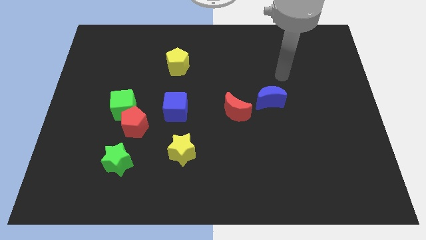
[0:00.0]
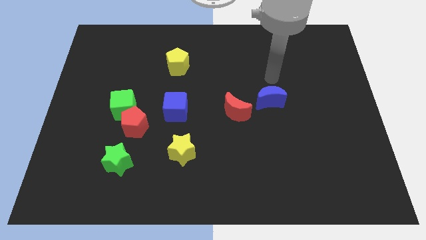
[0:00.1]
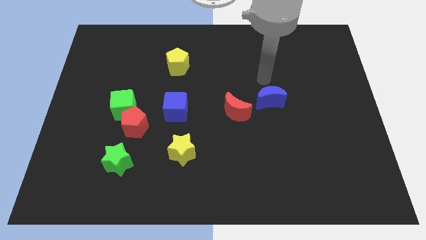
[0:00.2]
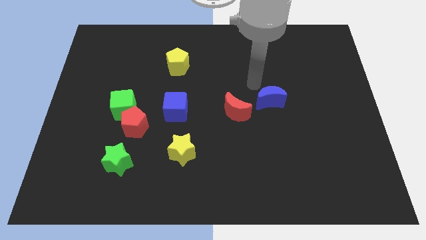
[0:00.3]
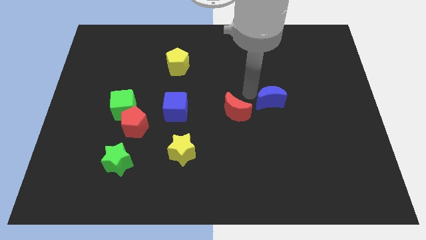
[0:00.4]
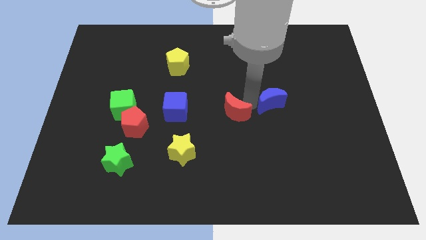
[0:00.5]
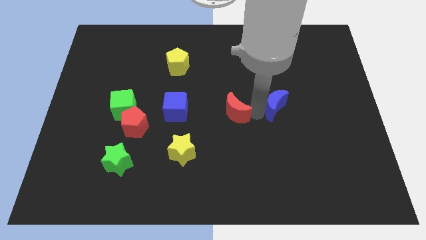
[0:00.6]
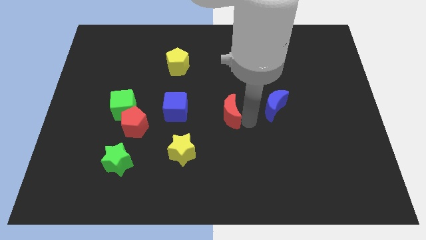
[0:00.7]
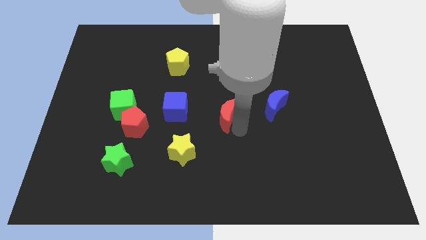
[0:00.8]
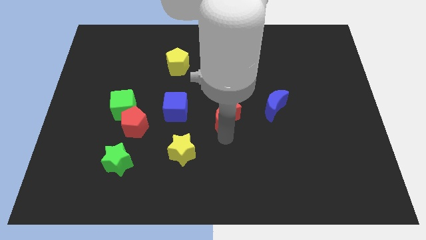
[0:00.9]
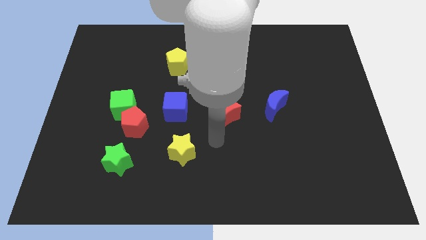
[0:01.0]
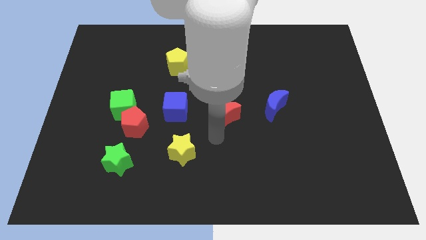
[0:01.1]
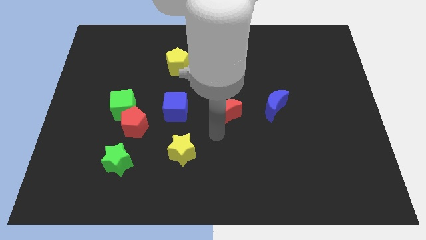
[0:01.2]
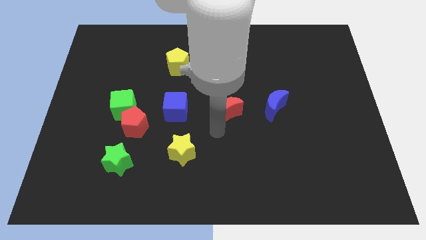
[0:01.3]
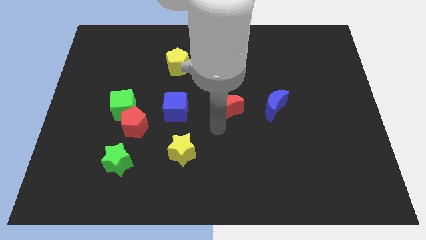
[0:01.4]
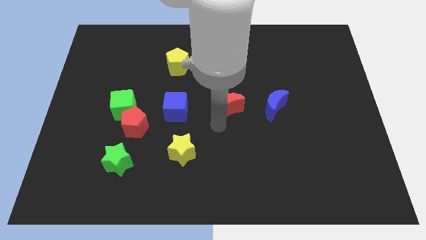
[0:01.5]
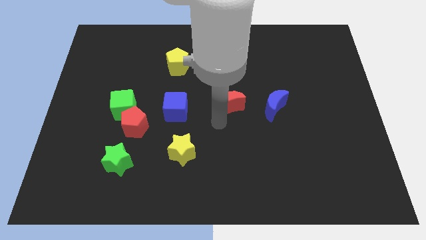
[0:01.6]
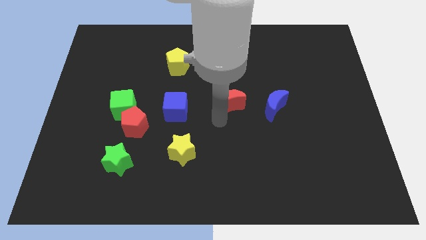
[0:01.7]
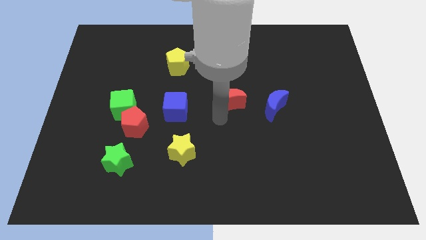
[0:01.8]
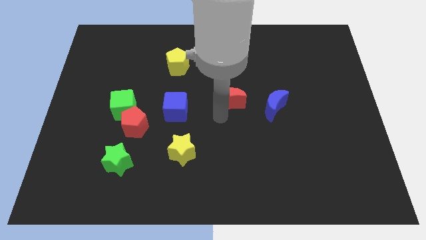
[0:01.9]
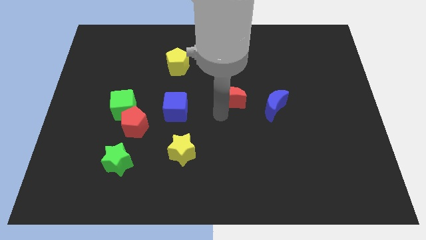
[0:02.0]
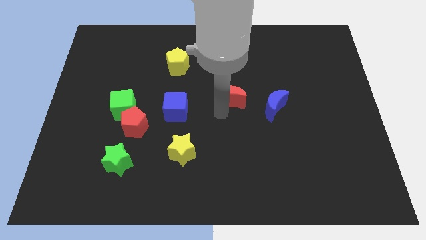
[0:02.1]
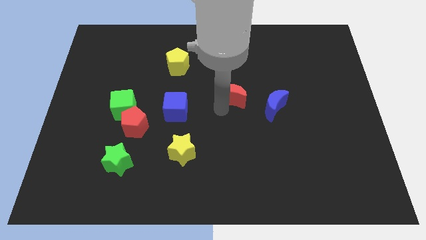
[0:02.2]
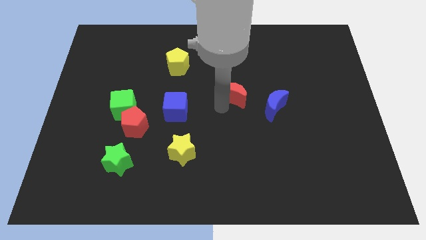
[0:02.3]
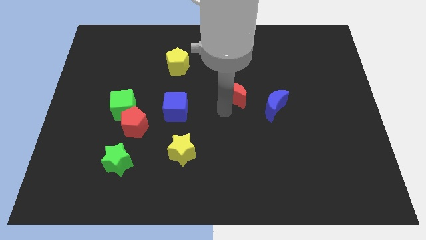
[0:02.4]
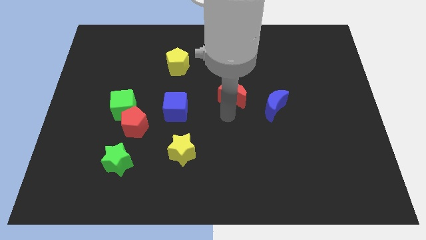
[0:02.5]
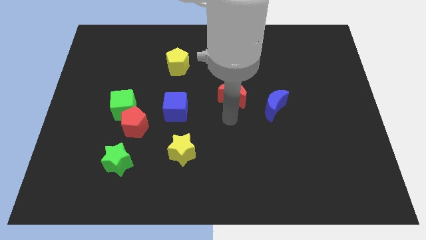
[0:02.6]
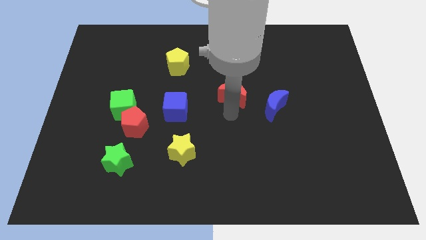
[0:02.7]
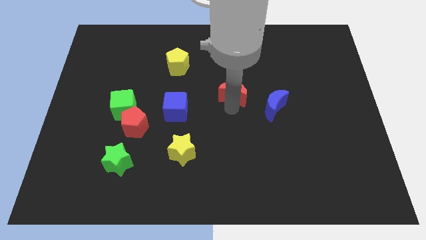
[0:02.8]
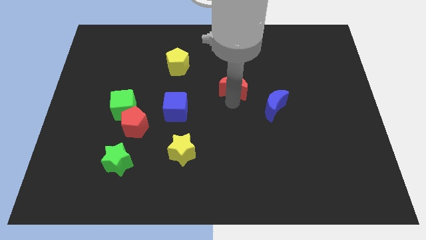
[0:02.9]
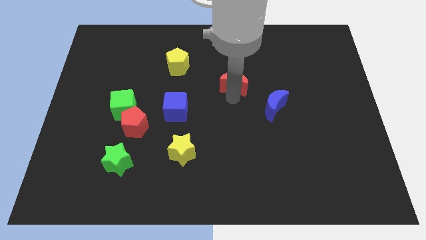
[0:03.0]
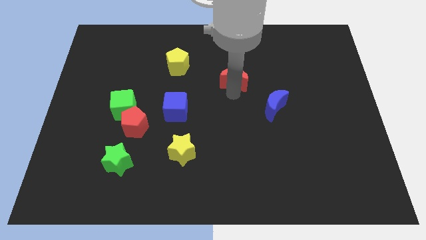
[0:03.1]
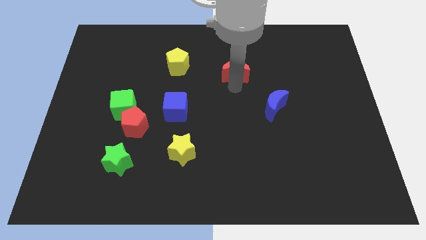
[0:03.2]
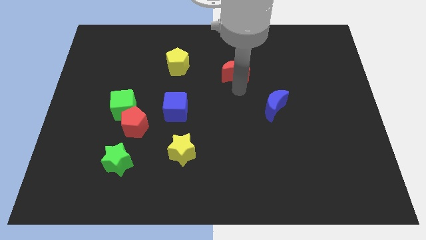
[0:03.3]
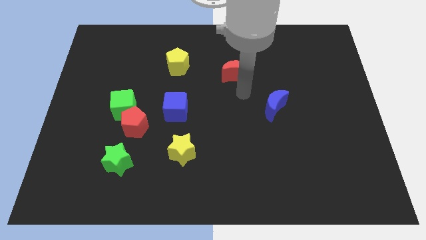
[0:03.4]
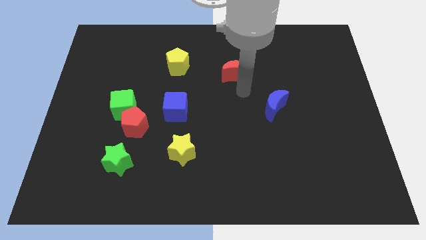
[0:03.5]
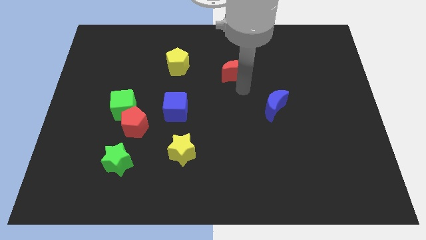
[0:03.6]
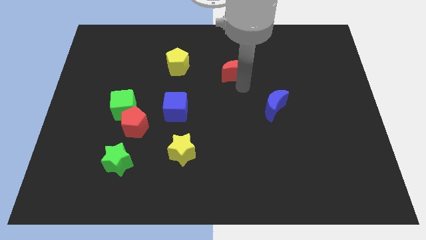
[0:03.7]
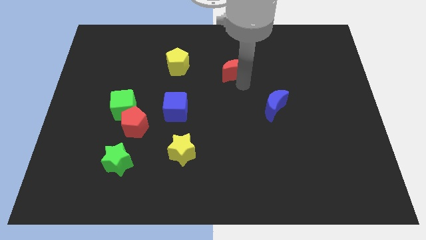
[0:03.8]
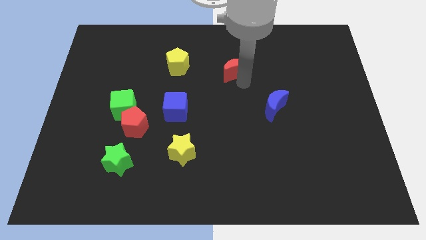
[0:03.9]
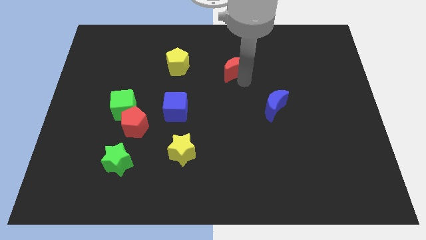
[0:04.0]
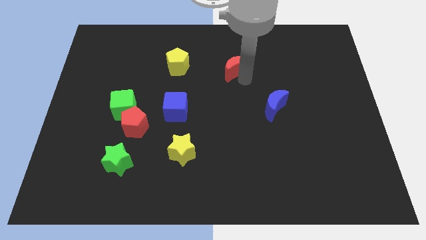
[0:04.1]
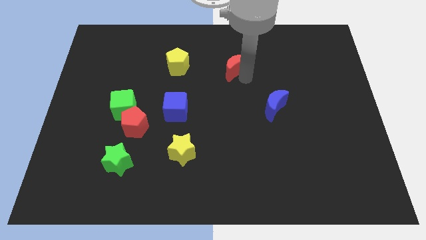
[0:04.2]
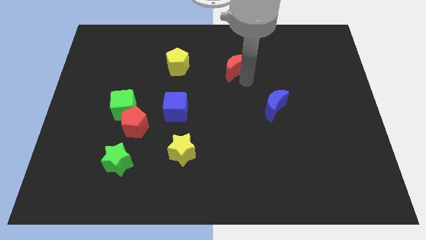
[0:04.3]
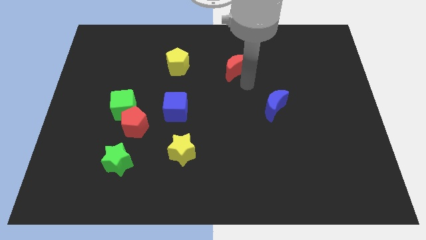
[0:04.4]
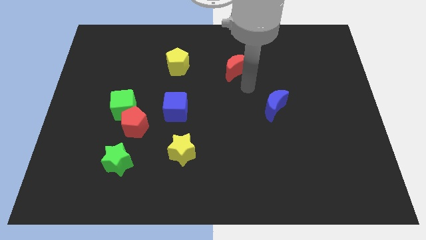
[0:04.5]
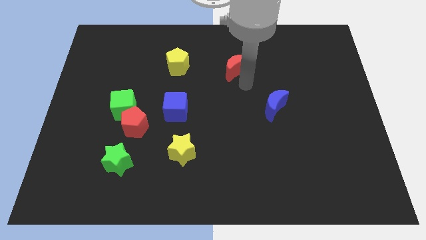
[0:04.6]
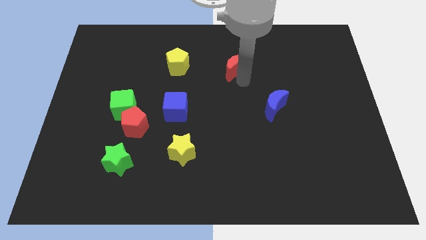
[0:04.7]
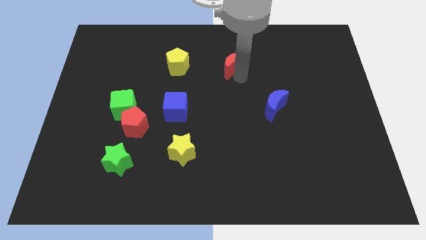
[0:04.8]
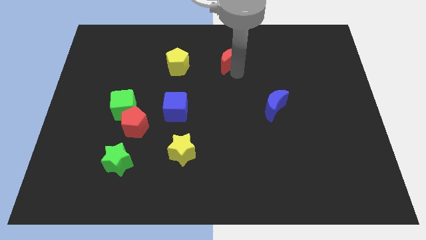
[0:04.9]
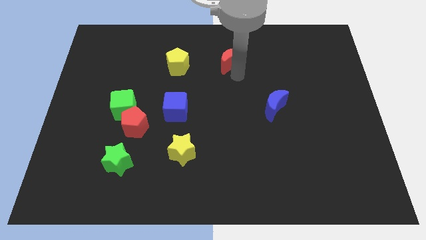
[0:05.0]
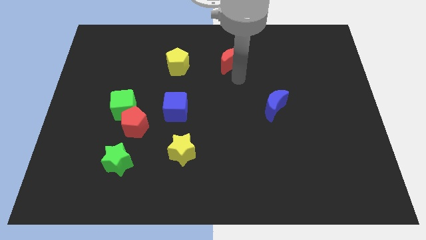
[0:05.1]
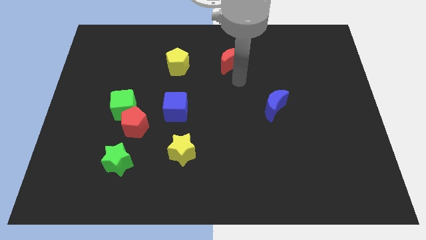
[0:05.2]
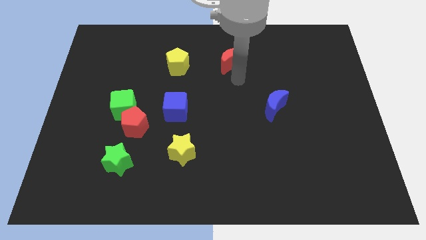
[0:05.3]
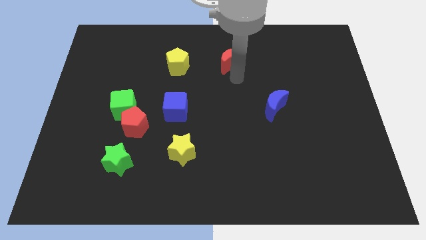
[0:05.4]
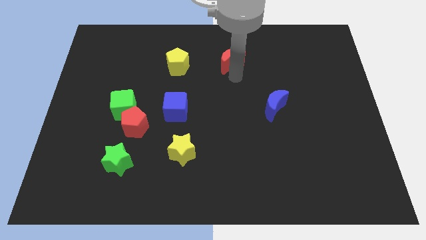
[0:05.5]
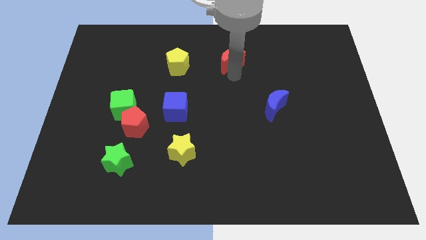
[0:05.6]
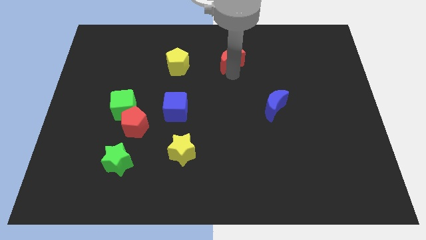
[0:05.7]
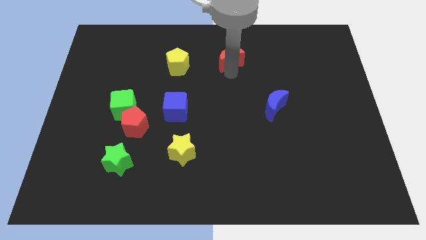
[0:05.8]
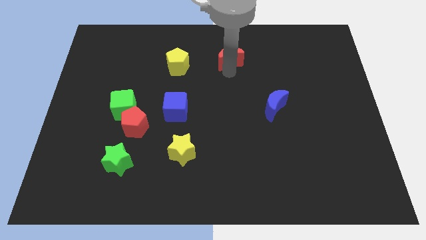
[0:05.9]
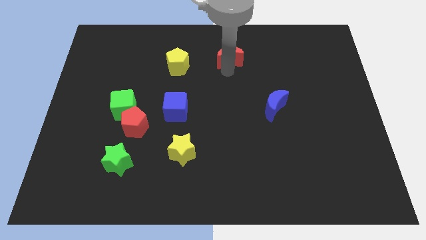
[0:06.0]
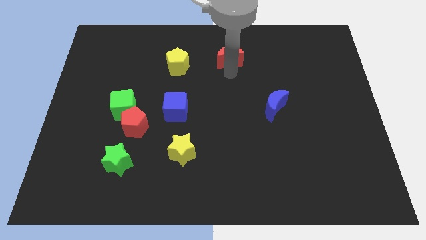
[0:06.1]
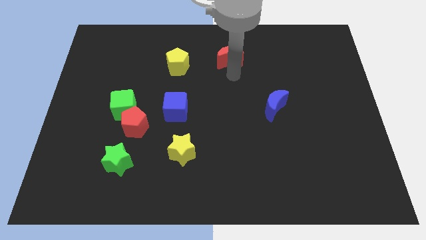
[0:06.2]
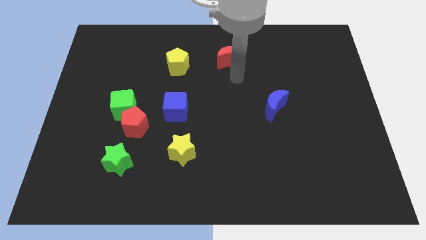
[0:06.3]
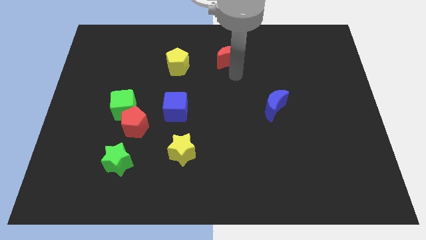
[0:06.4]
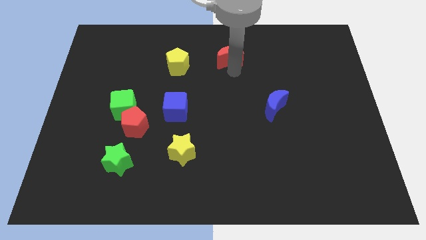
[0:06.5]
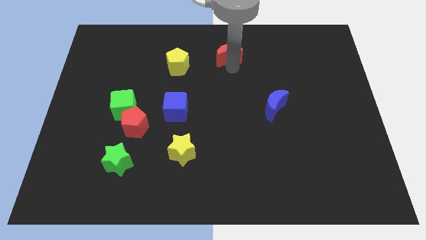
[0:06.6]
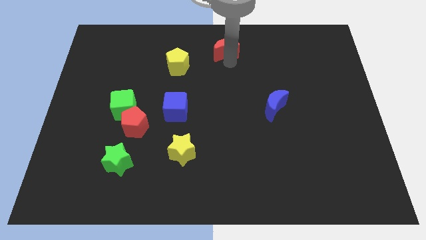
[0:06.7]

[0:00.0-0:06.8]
slide the red moon to the top side
